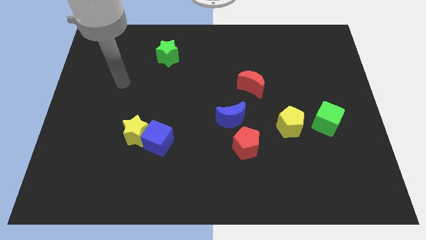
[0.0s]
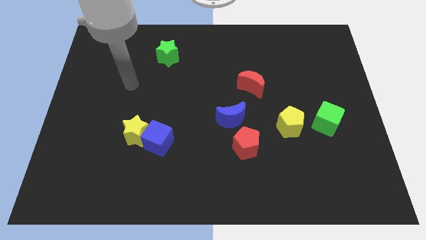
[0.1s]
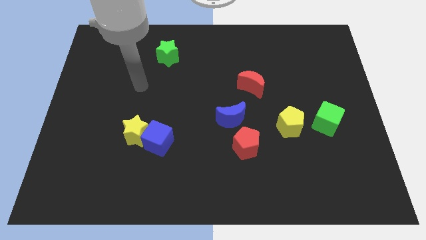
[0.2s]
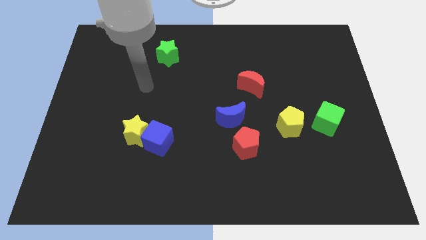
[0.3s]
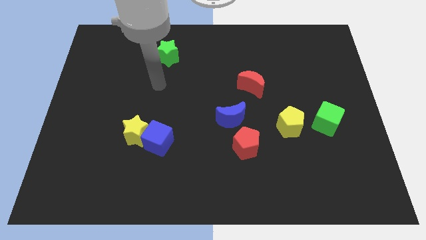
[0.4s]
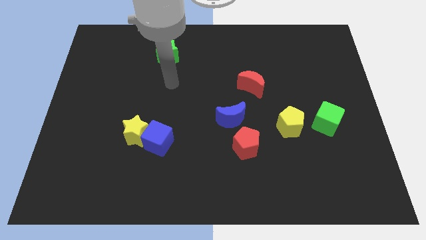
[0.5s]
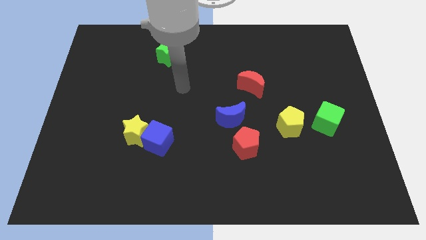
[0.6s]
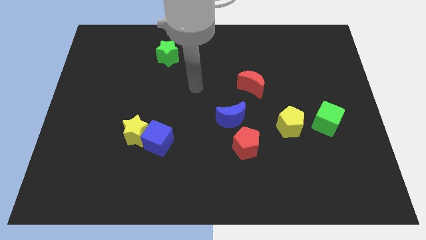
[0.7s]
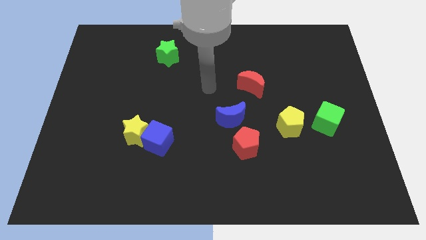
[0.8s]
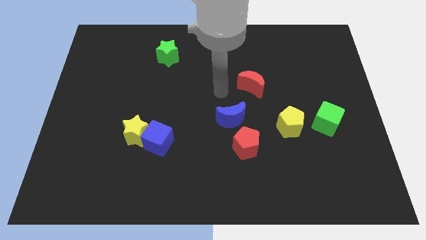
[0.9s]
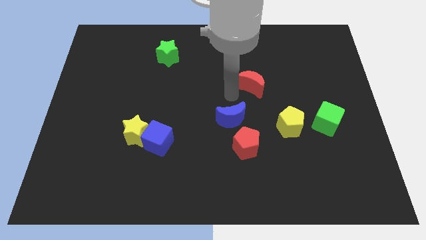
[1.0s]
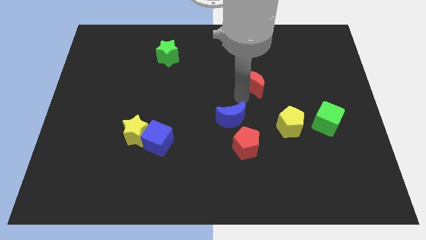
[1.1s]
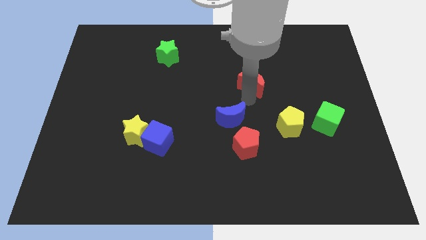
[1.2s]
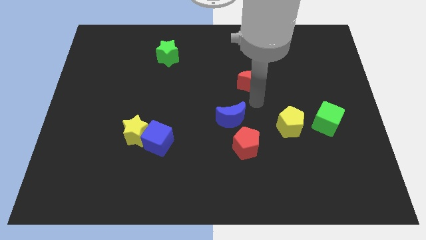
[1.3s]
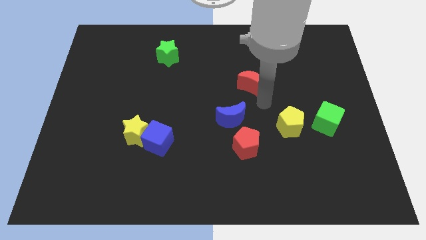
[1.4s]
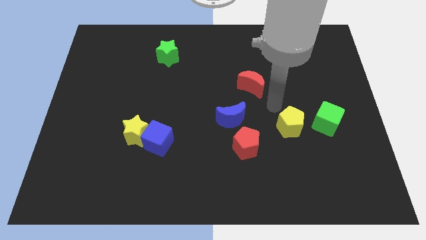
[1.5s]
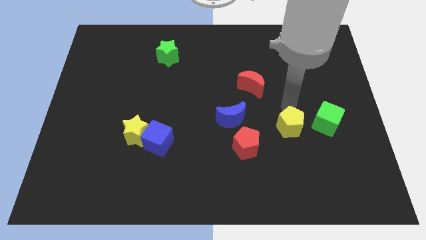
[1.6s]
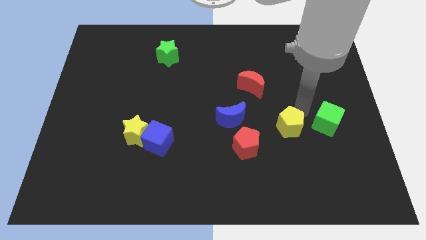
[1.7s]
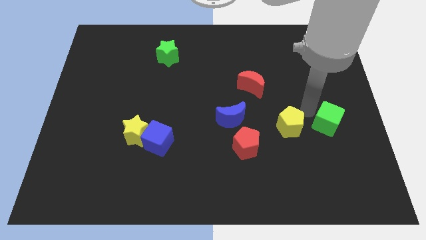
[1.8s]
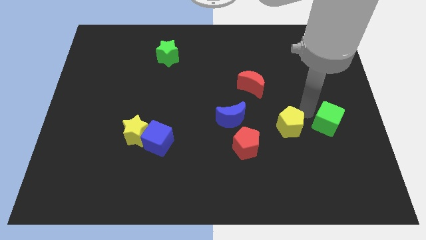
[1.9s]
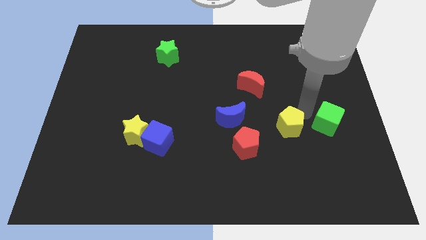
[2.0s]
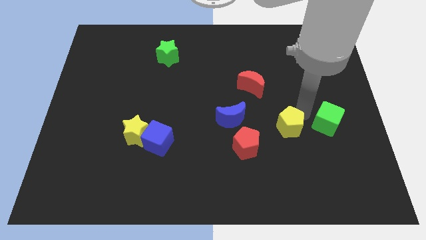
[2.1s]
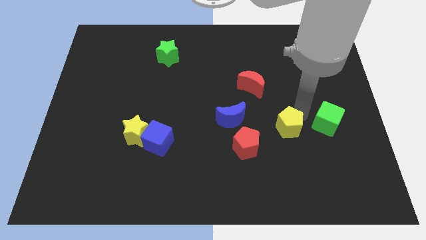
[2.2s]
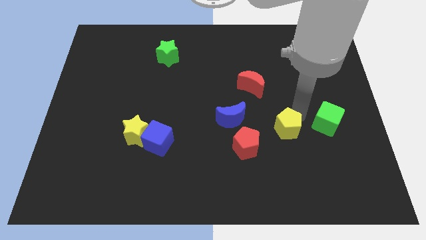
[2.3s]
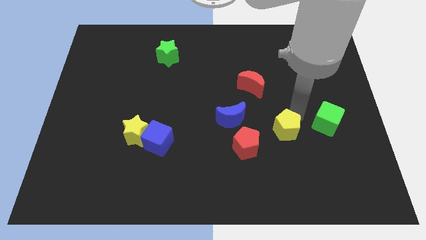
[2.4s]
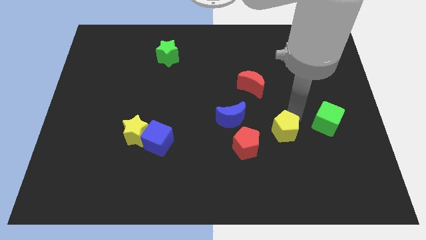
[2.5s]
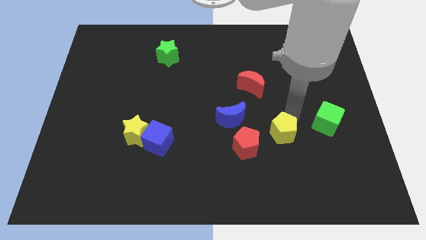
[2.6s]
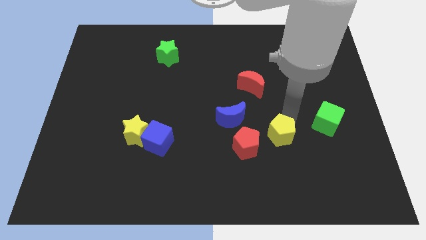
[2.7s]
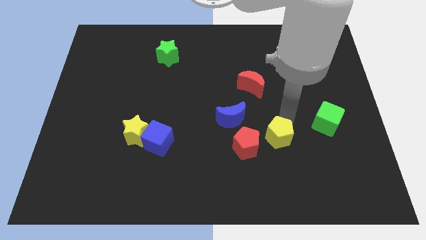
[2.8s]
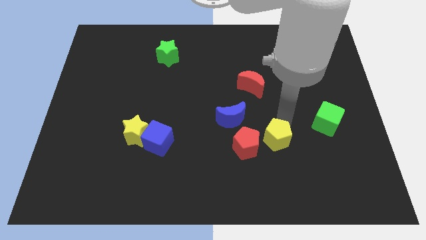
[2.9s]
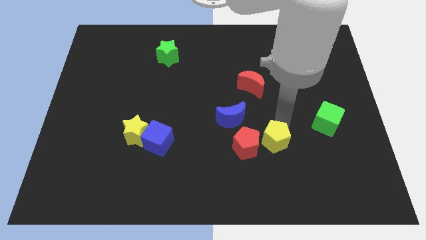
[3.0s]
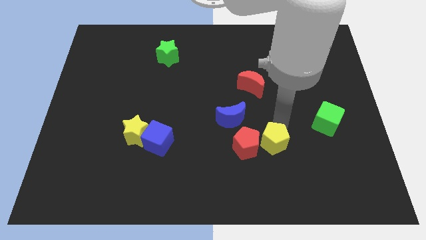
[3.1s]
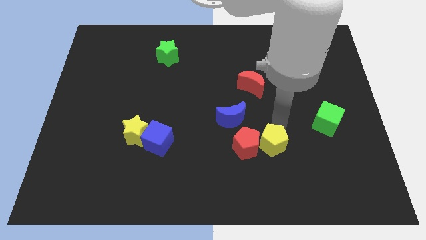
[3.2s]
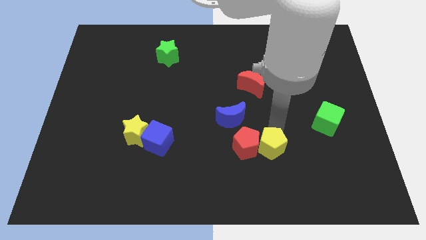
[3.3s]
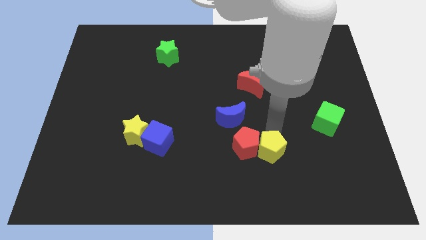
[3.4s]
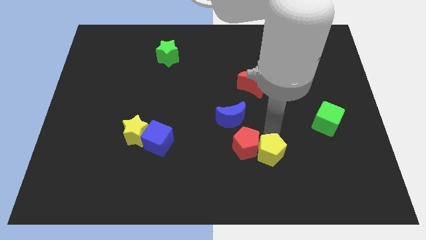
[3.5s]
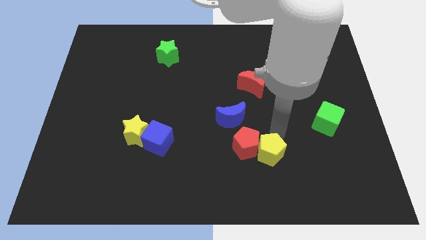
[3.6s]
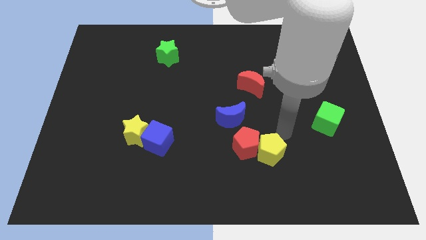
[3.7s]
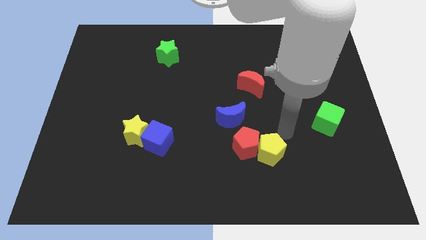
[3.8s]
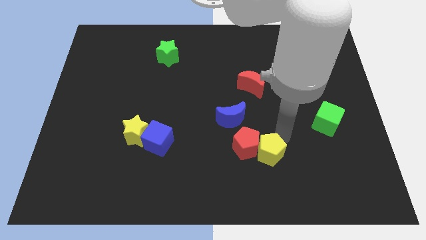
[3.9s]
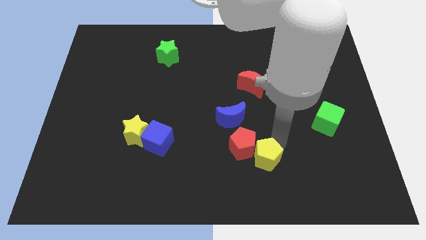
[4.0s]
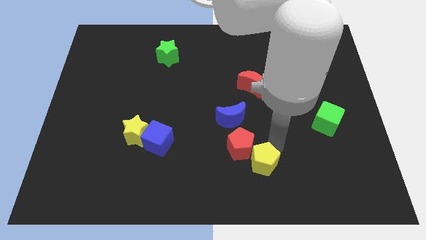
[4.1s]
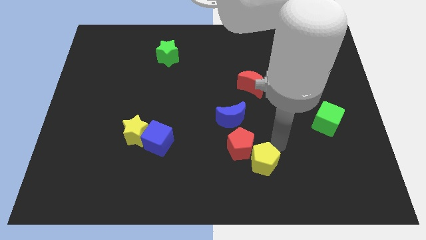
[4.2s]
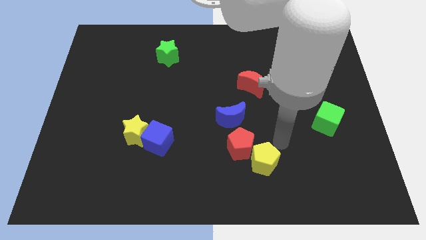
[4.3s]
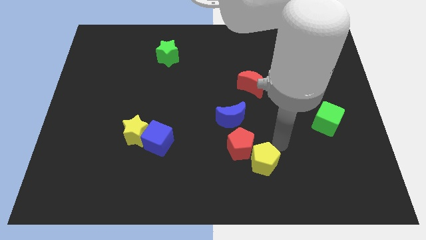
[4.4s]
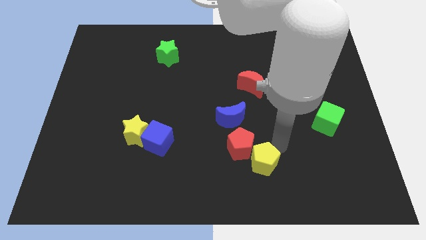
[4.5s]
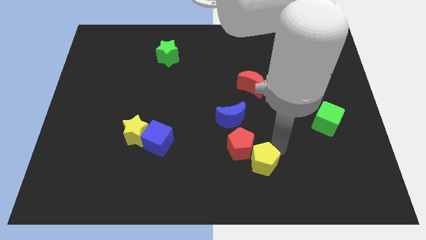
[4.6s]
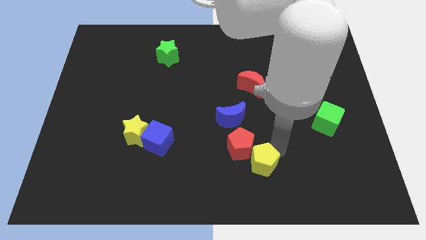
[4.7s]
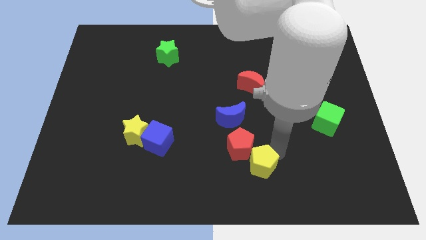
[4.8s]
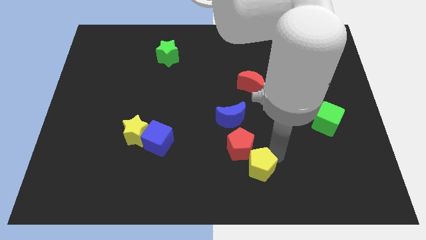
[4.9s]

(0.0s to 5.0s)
slide the yellow pentagon to the bottom side

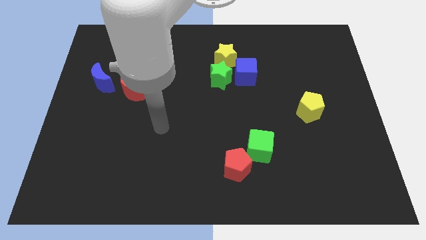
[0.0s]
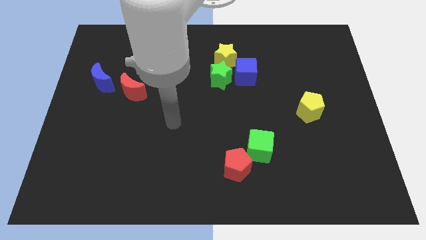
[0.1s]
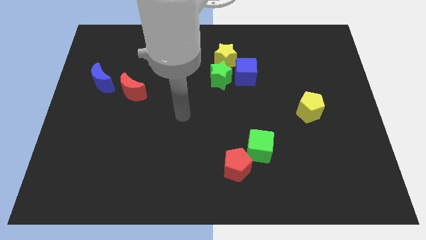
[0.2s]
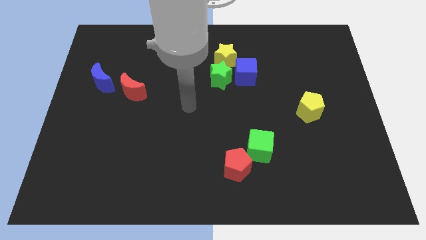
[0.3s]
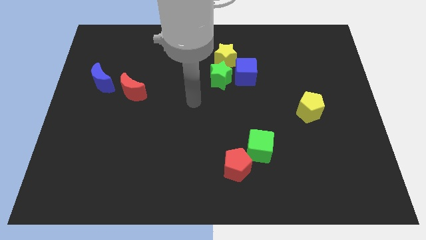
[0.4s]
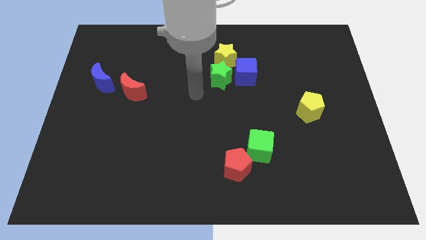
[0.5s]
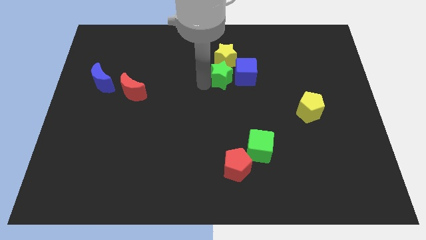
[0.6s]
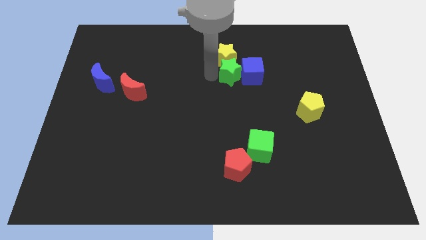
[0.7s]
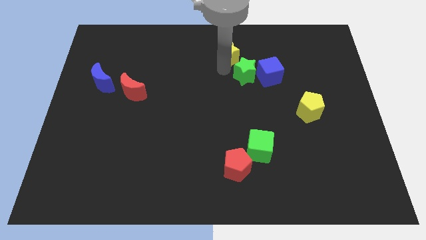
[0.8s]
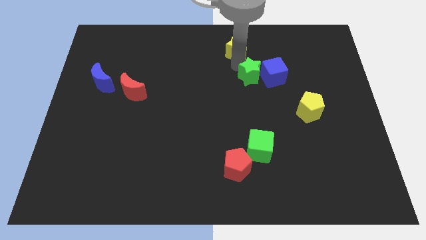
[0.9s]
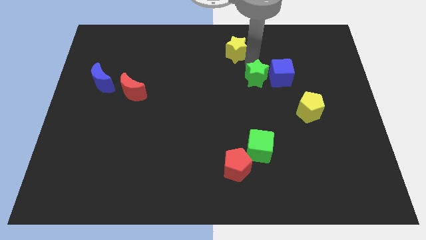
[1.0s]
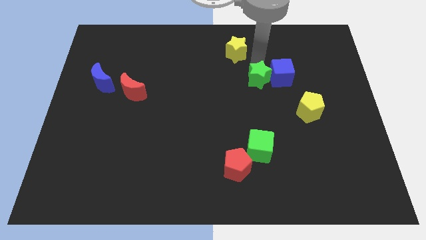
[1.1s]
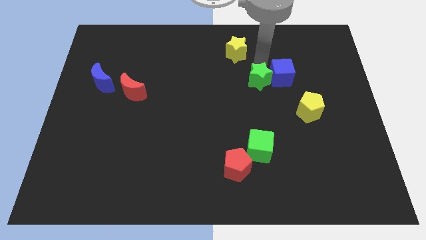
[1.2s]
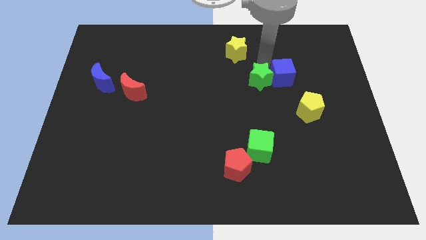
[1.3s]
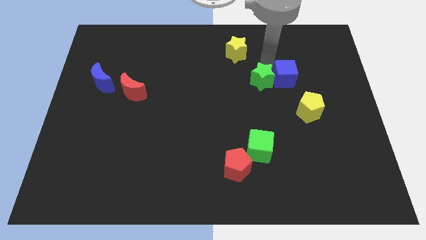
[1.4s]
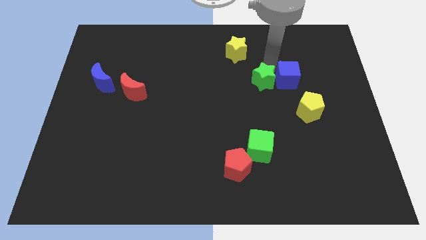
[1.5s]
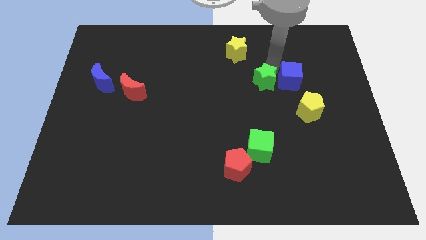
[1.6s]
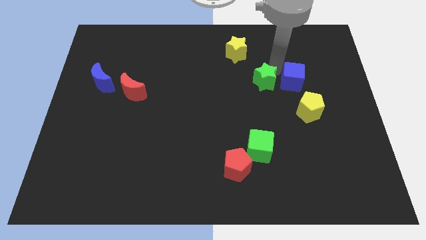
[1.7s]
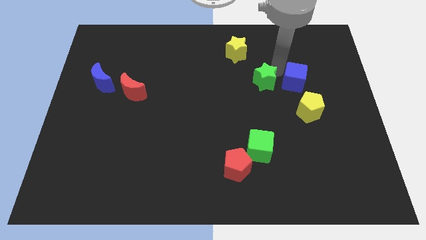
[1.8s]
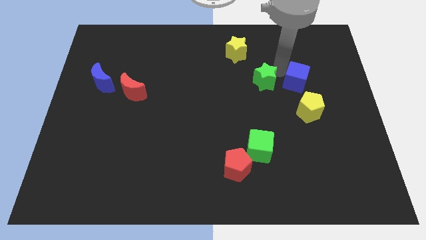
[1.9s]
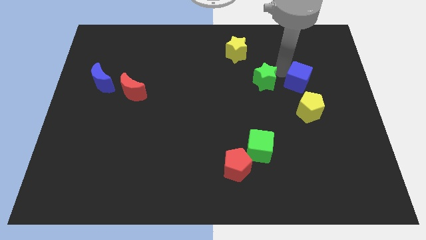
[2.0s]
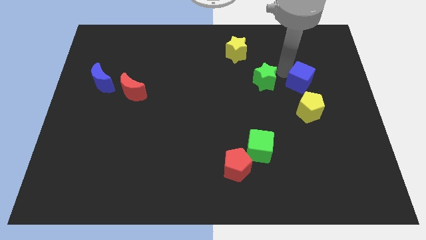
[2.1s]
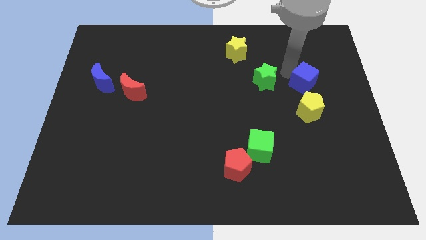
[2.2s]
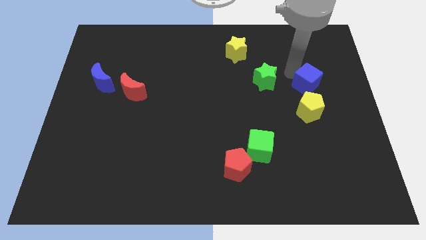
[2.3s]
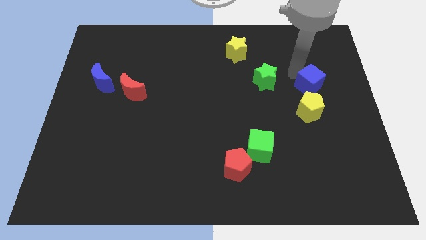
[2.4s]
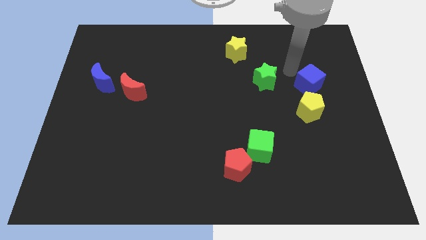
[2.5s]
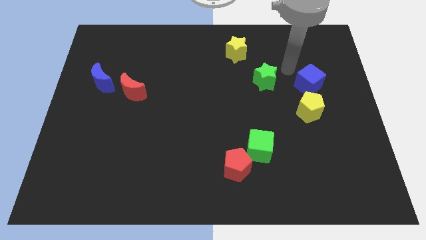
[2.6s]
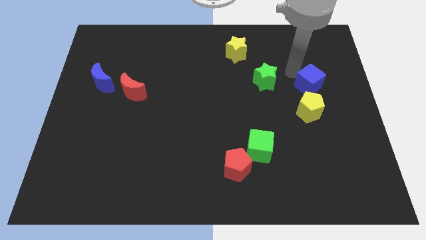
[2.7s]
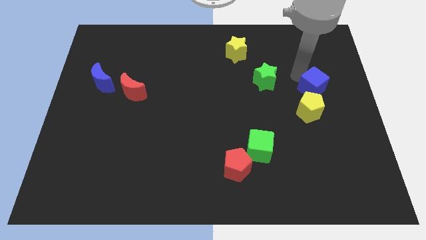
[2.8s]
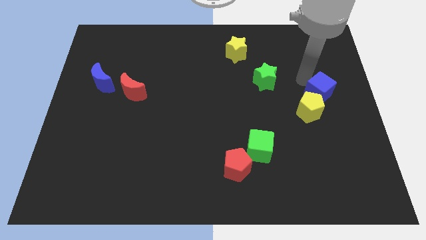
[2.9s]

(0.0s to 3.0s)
slide the blue cube to the right side of the board
